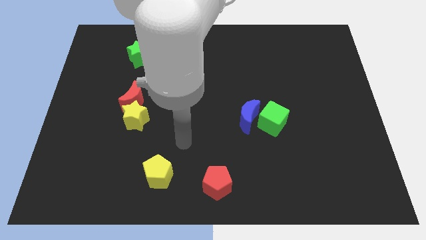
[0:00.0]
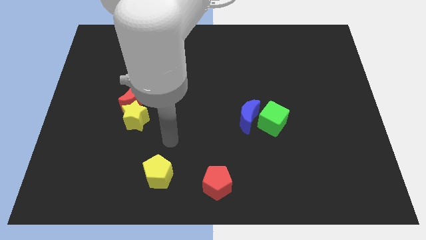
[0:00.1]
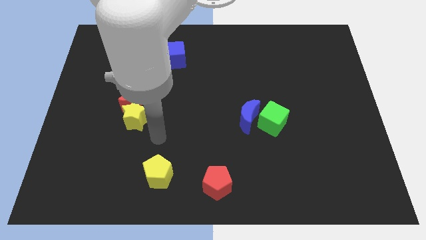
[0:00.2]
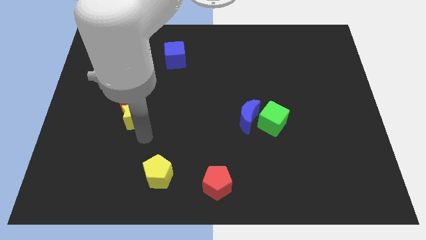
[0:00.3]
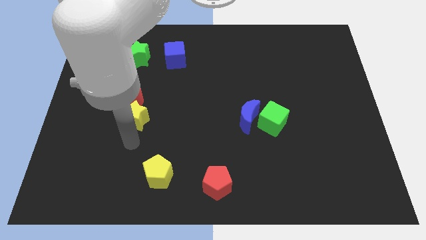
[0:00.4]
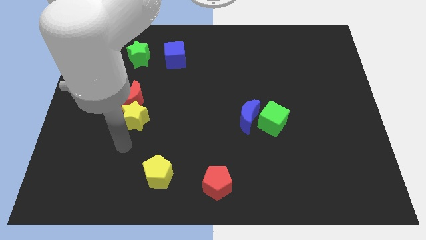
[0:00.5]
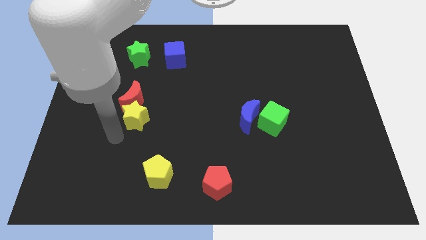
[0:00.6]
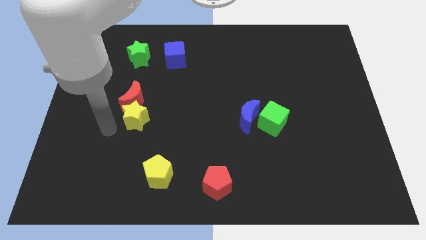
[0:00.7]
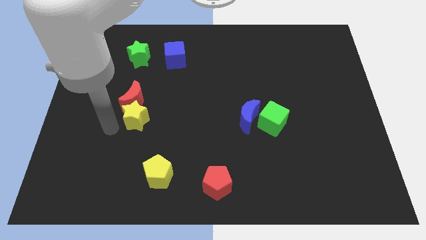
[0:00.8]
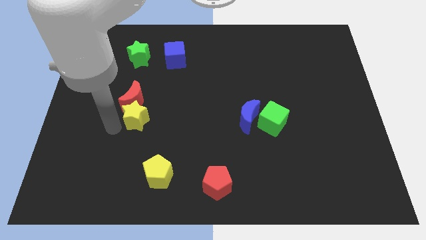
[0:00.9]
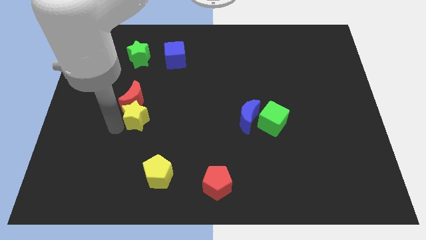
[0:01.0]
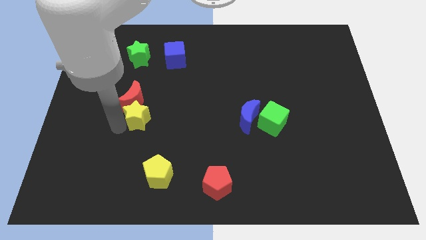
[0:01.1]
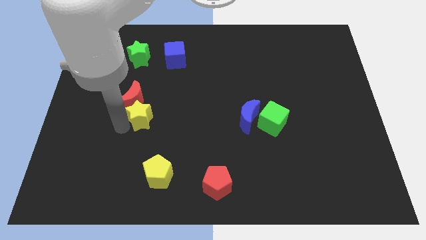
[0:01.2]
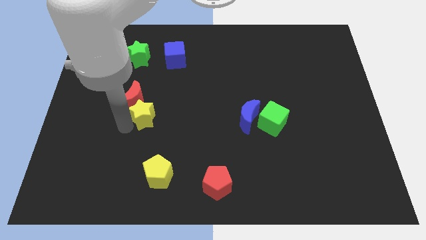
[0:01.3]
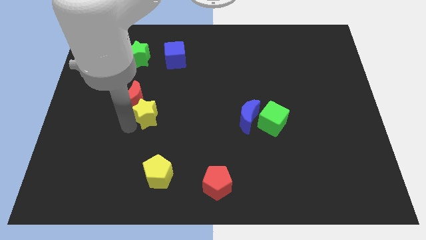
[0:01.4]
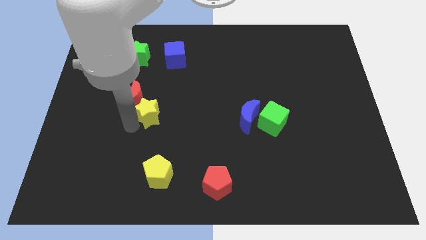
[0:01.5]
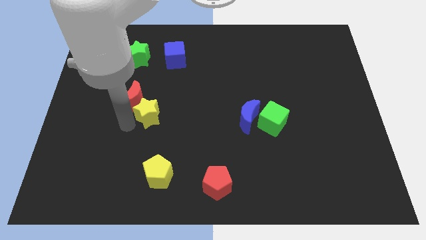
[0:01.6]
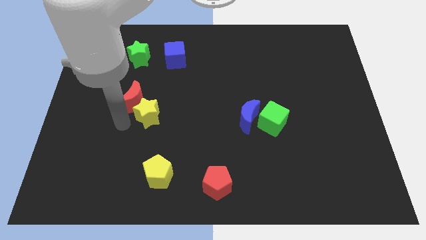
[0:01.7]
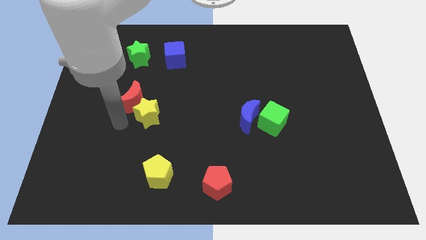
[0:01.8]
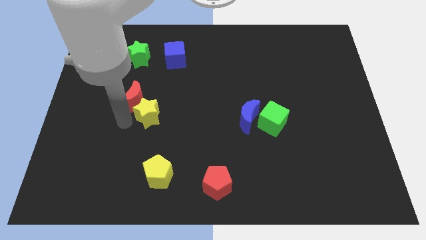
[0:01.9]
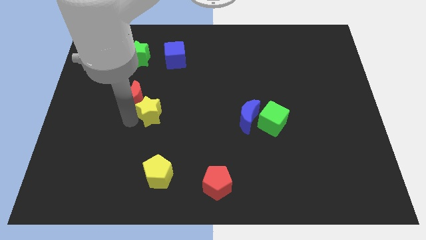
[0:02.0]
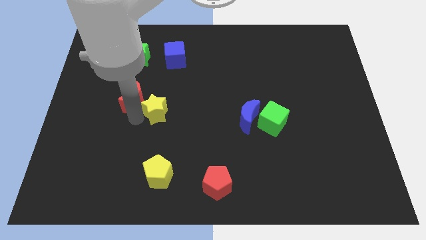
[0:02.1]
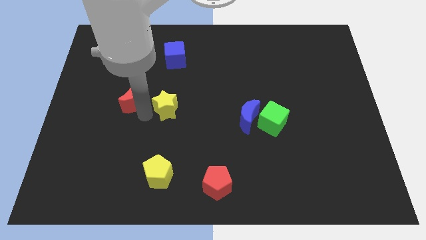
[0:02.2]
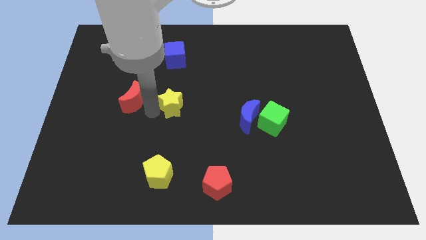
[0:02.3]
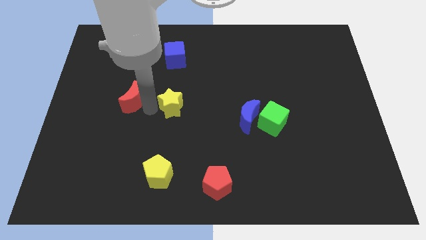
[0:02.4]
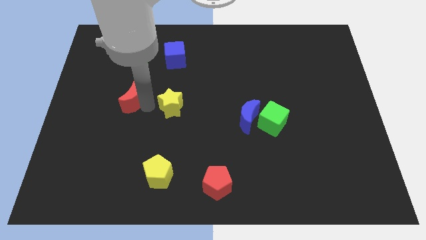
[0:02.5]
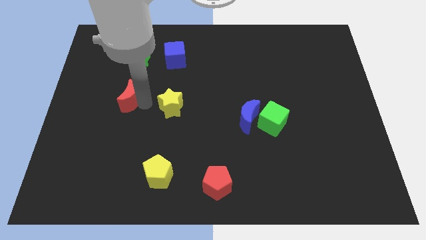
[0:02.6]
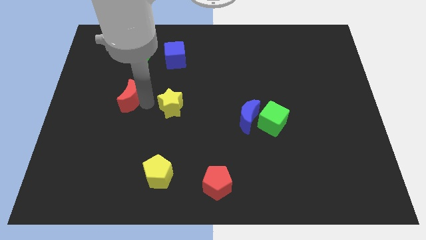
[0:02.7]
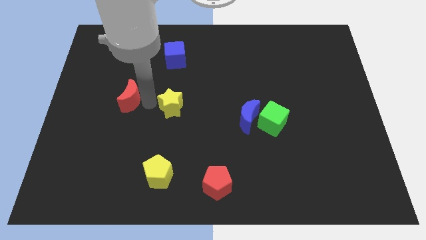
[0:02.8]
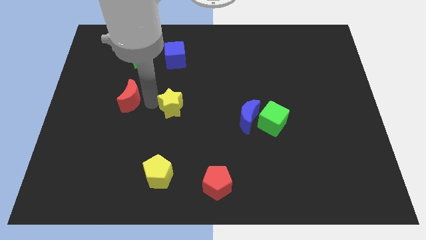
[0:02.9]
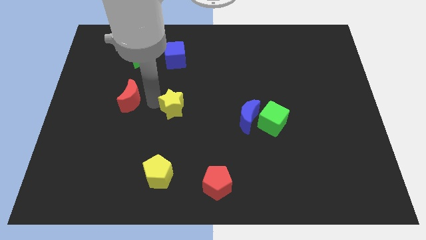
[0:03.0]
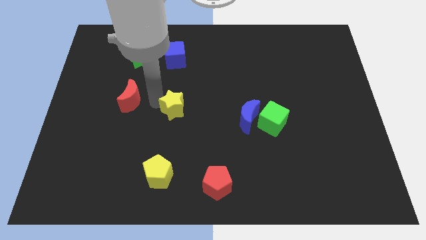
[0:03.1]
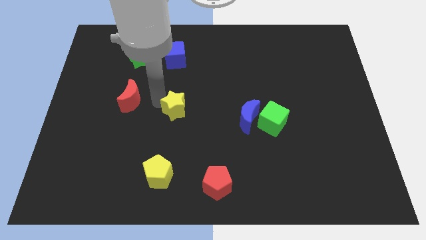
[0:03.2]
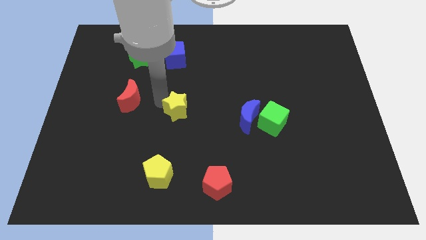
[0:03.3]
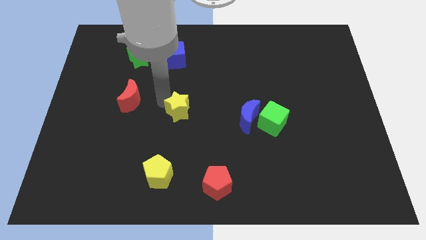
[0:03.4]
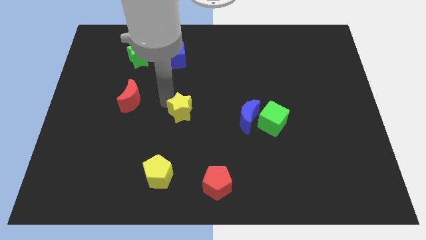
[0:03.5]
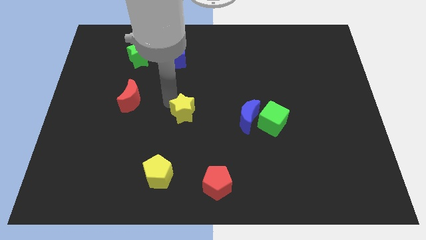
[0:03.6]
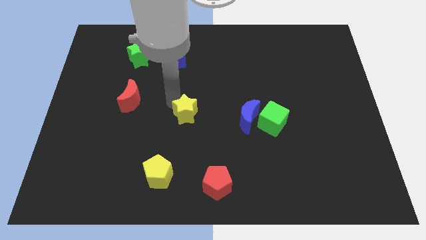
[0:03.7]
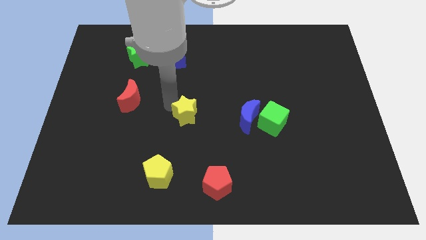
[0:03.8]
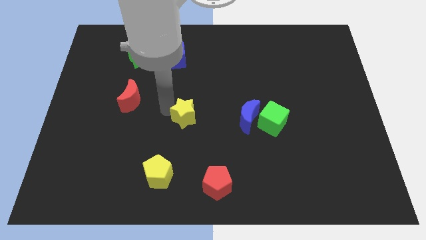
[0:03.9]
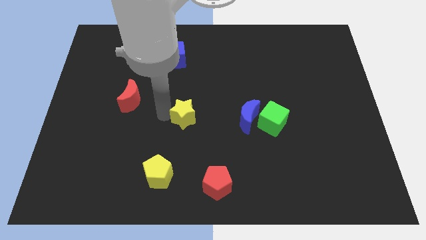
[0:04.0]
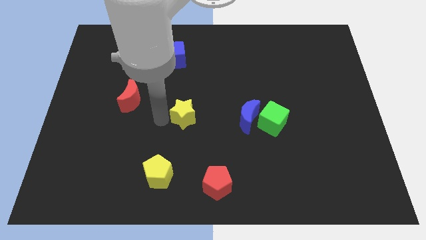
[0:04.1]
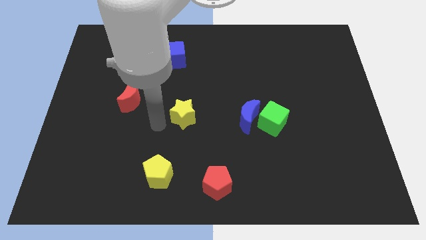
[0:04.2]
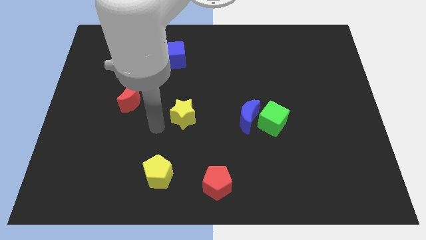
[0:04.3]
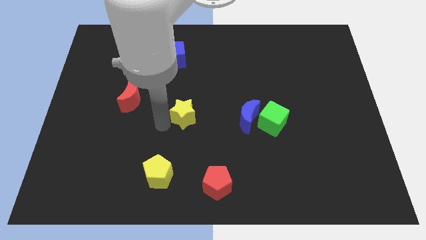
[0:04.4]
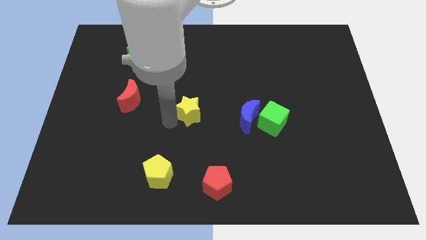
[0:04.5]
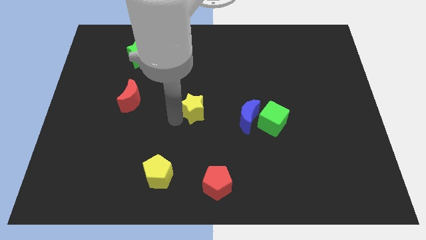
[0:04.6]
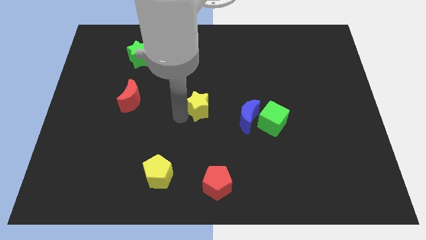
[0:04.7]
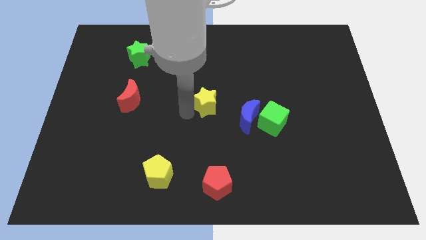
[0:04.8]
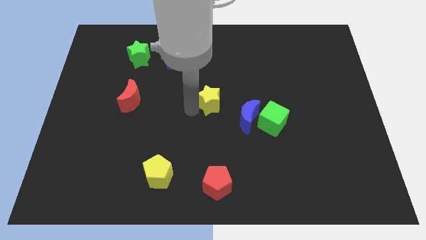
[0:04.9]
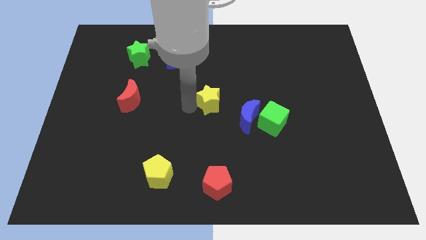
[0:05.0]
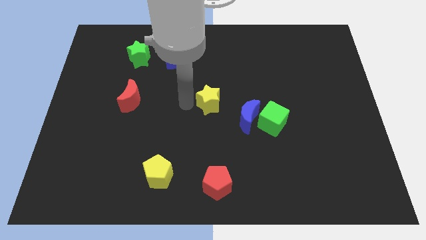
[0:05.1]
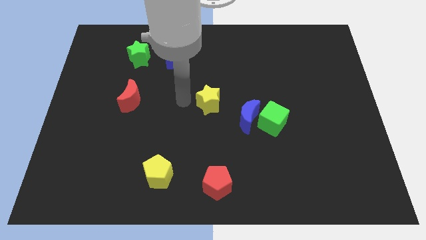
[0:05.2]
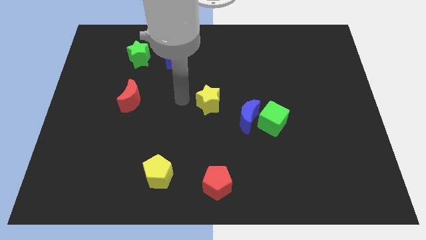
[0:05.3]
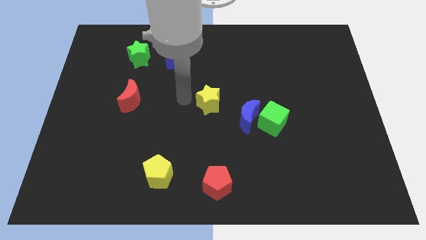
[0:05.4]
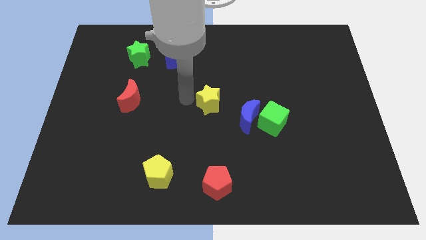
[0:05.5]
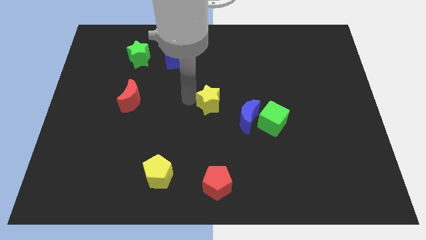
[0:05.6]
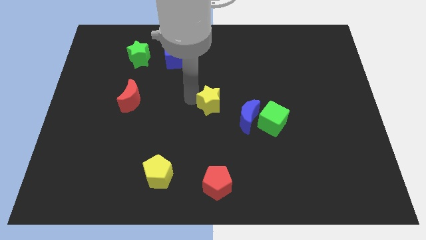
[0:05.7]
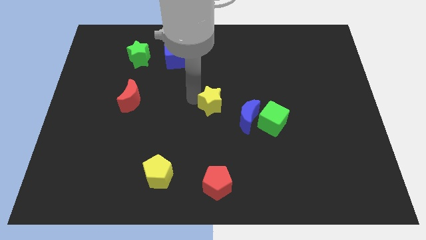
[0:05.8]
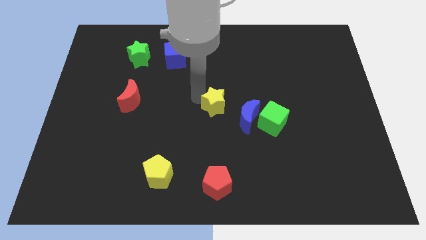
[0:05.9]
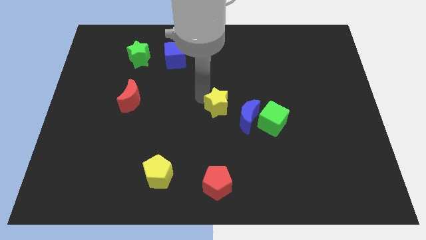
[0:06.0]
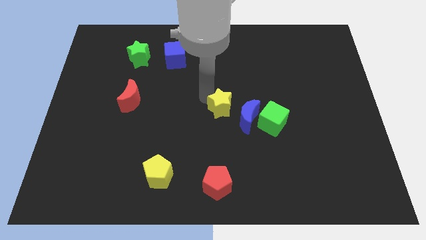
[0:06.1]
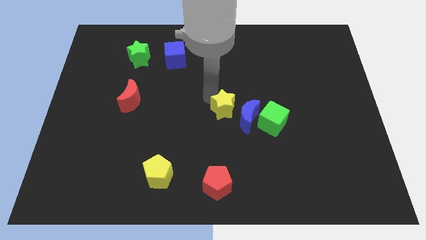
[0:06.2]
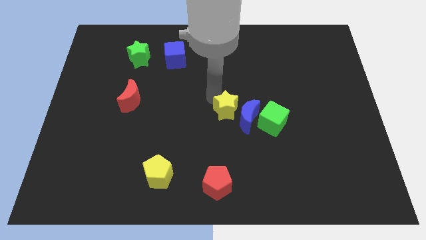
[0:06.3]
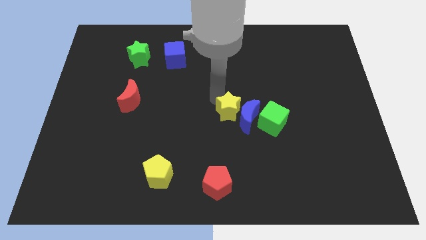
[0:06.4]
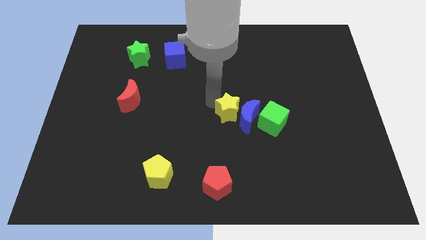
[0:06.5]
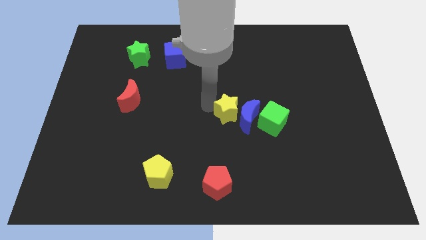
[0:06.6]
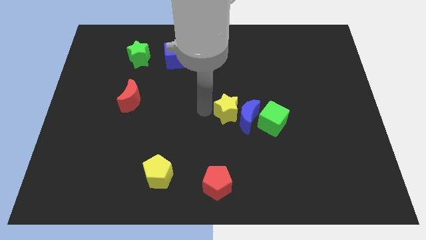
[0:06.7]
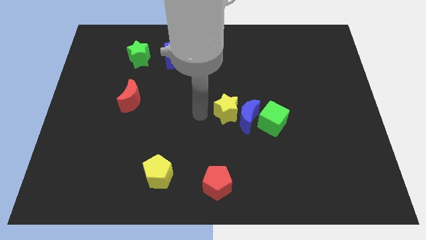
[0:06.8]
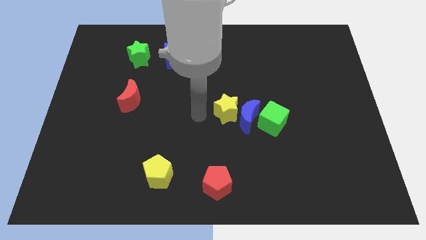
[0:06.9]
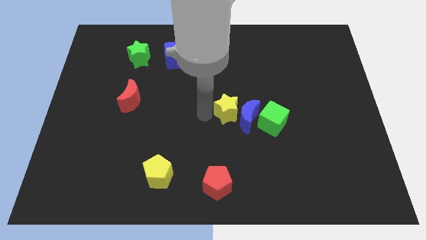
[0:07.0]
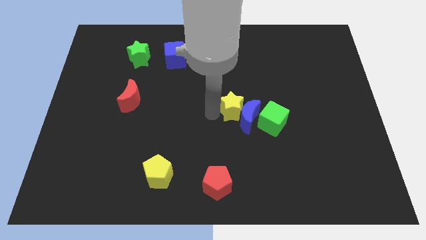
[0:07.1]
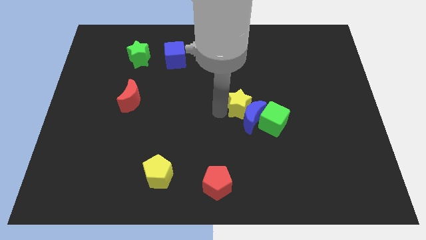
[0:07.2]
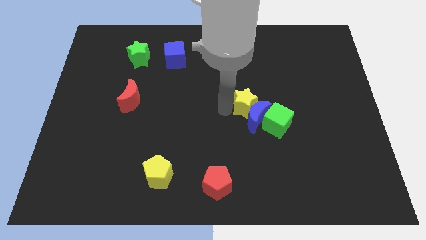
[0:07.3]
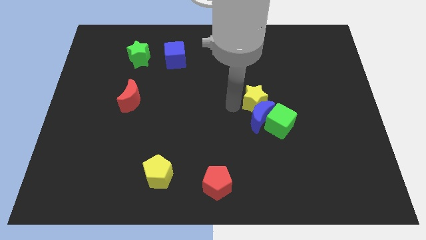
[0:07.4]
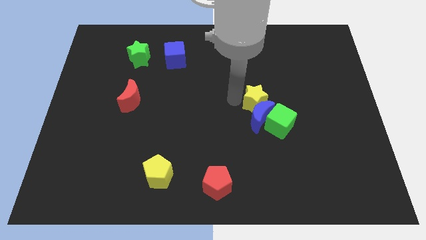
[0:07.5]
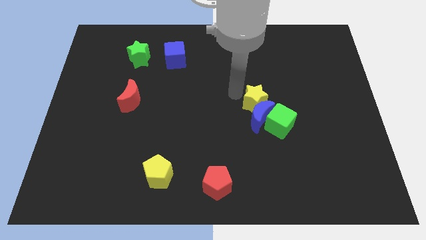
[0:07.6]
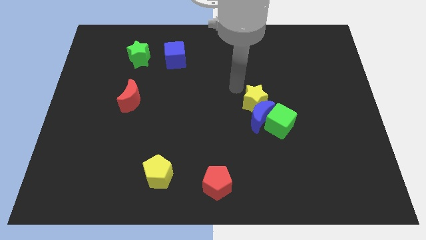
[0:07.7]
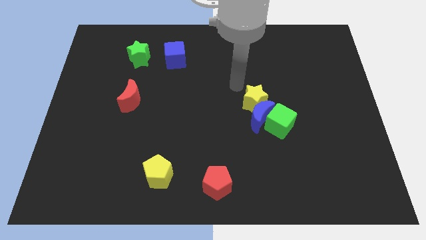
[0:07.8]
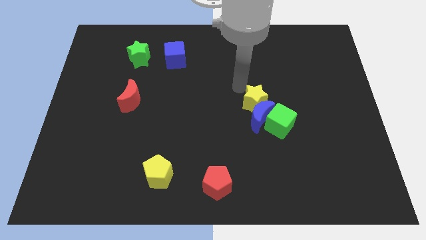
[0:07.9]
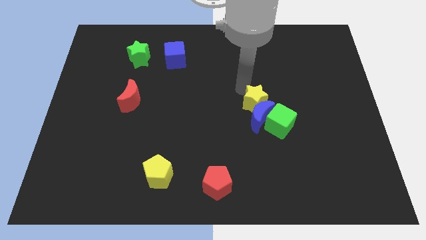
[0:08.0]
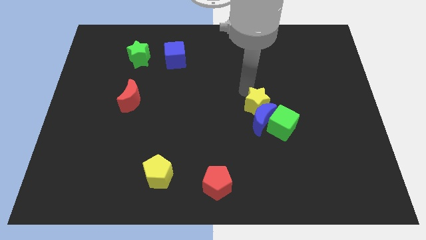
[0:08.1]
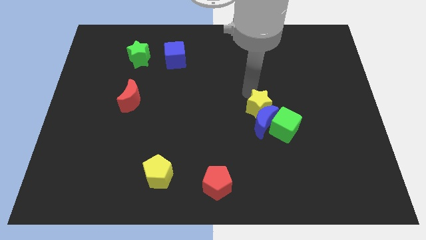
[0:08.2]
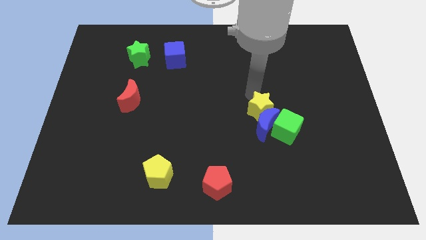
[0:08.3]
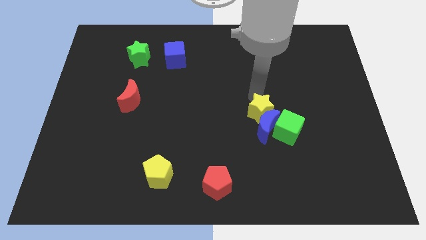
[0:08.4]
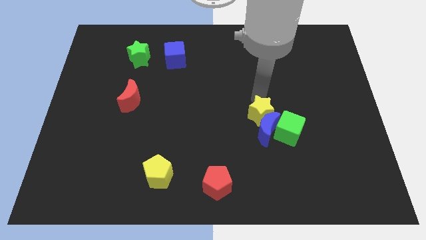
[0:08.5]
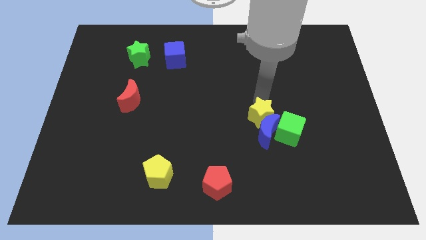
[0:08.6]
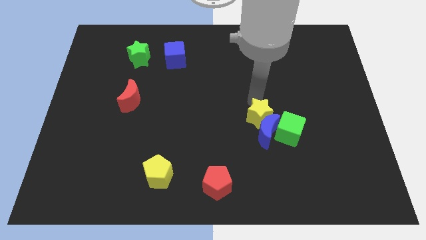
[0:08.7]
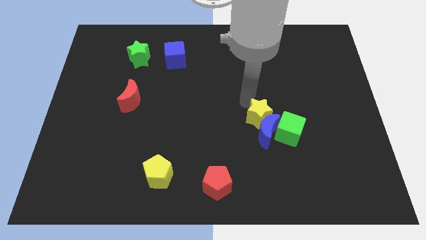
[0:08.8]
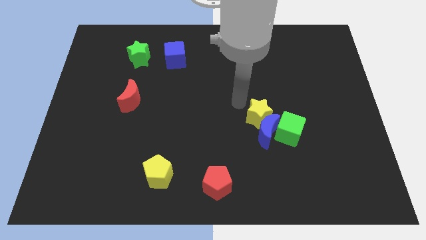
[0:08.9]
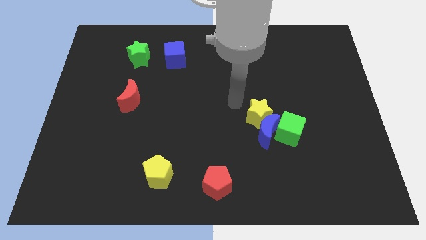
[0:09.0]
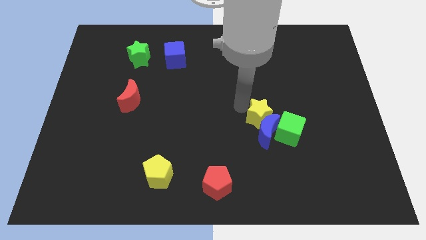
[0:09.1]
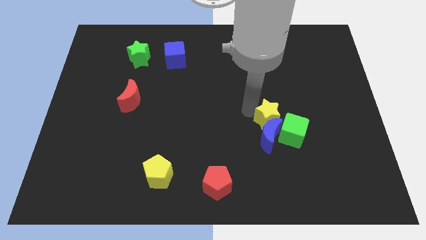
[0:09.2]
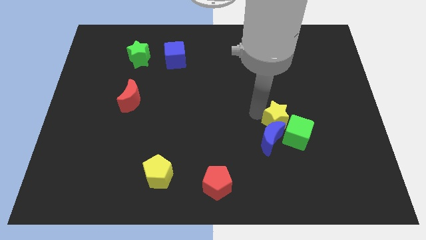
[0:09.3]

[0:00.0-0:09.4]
slide the yellow star towards the green cube
